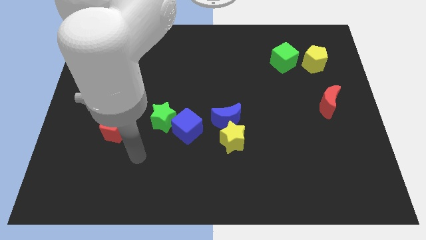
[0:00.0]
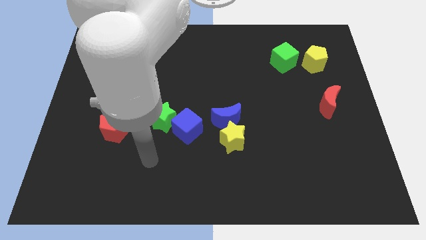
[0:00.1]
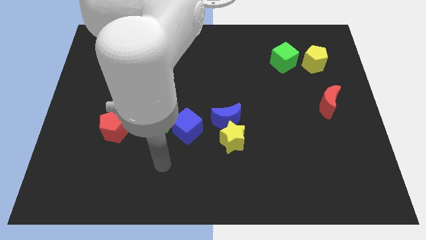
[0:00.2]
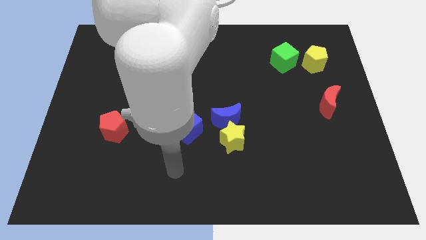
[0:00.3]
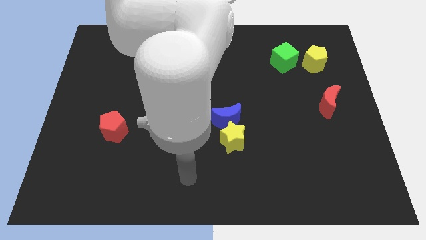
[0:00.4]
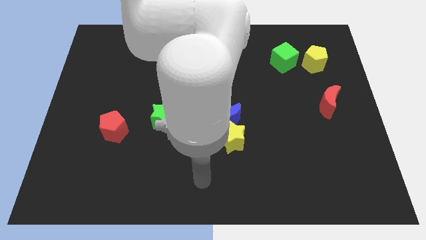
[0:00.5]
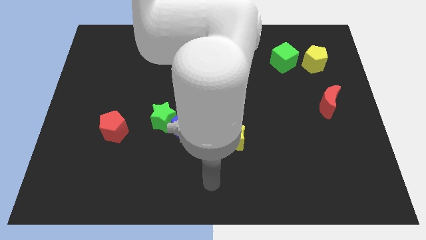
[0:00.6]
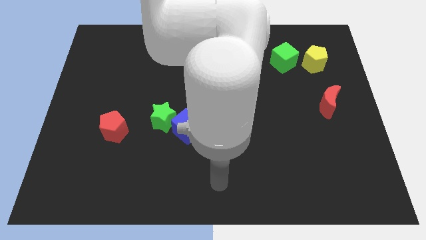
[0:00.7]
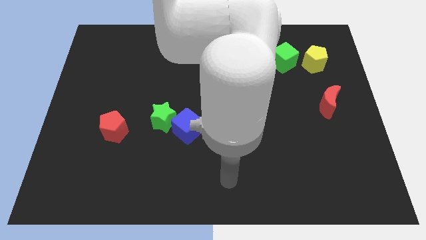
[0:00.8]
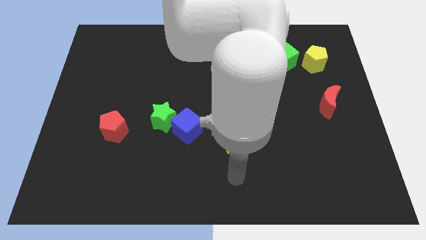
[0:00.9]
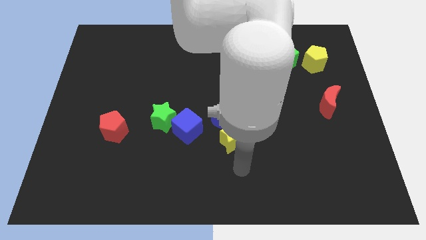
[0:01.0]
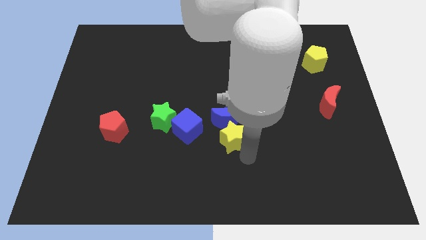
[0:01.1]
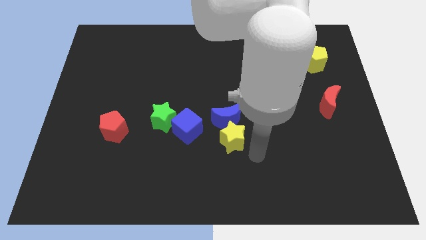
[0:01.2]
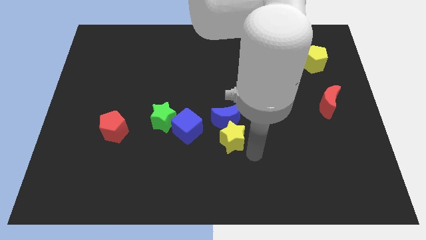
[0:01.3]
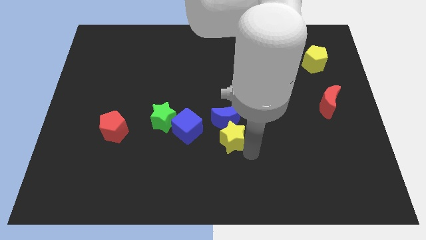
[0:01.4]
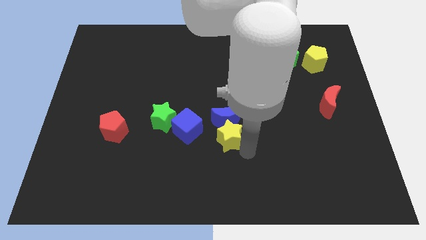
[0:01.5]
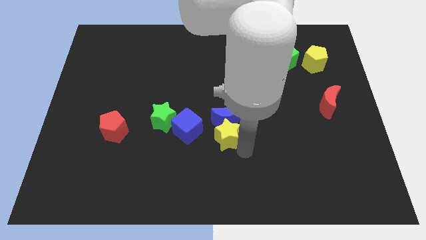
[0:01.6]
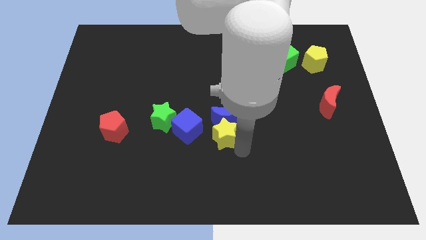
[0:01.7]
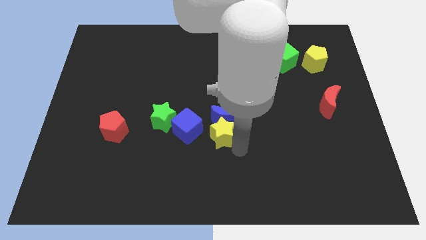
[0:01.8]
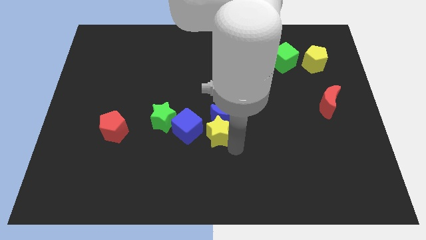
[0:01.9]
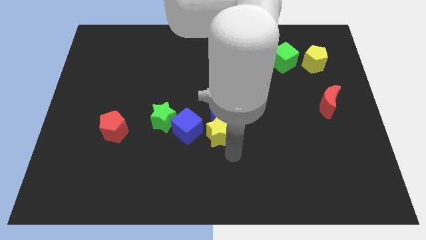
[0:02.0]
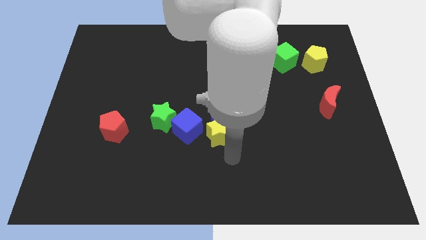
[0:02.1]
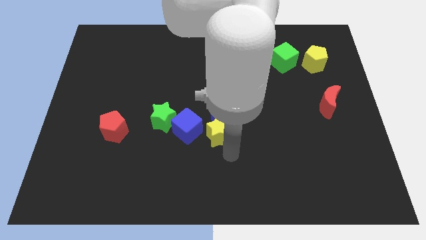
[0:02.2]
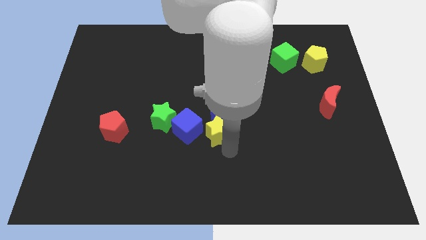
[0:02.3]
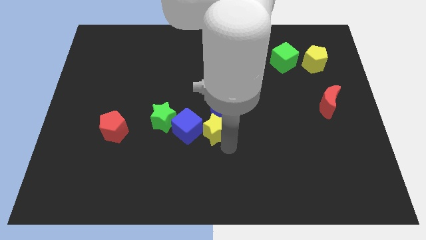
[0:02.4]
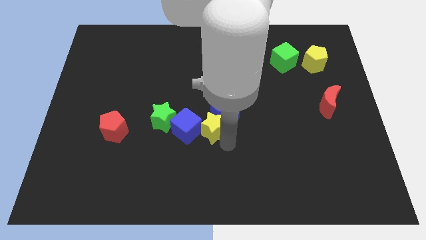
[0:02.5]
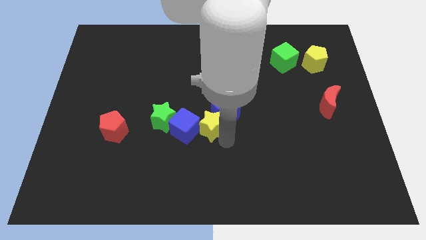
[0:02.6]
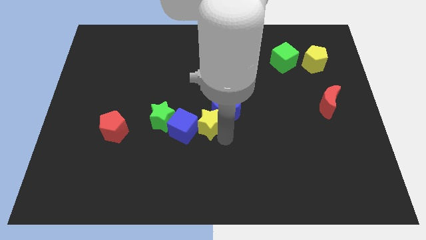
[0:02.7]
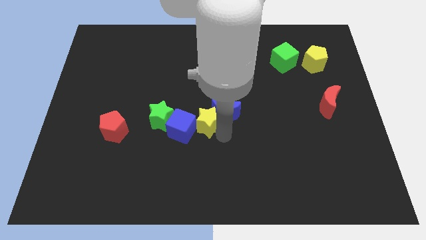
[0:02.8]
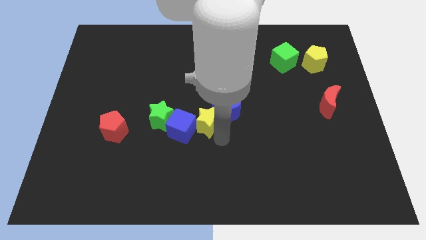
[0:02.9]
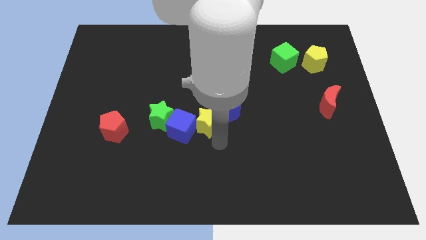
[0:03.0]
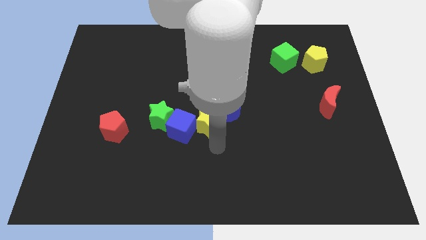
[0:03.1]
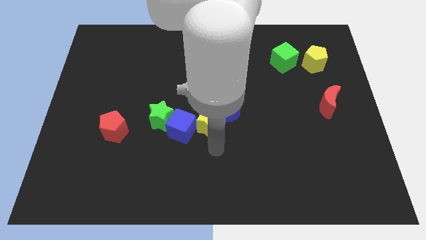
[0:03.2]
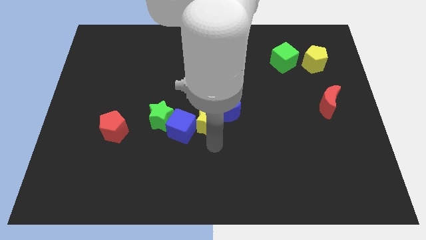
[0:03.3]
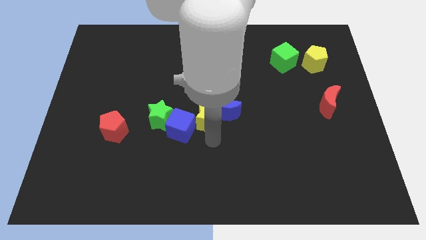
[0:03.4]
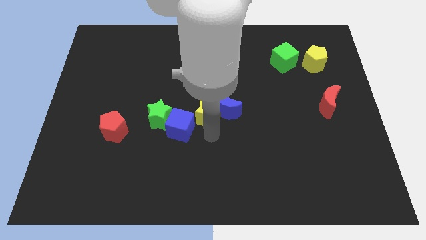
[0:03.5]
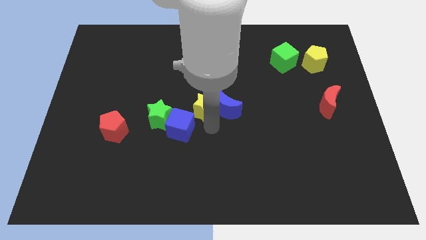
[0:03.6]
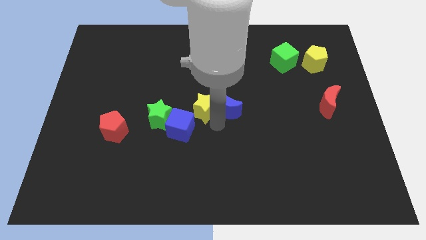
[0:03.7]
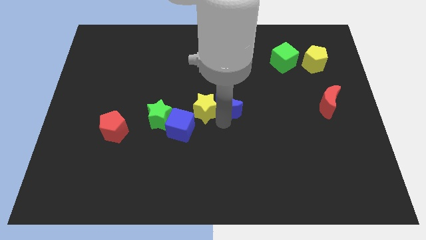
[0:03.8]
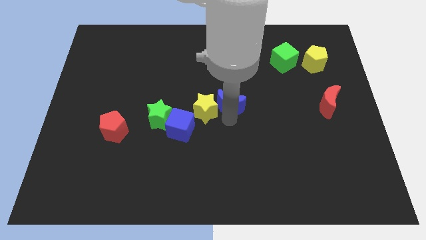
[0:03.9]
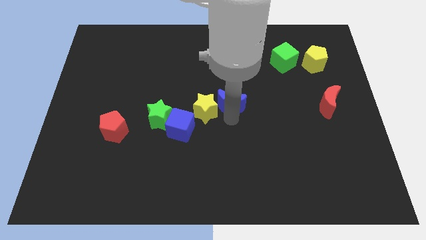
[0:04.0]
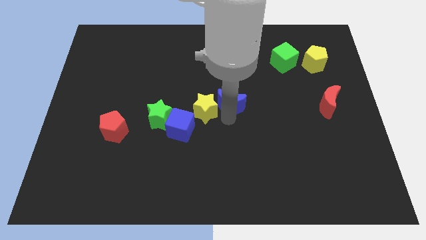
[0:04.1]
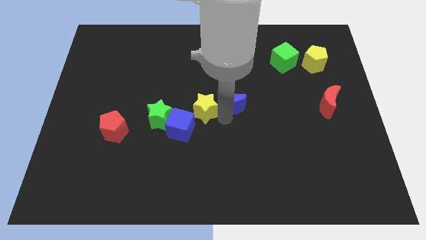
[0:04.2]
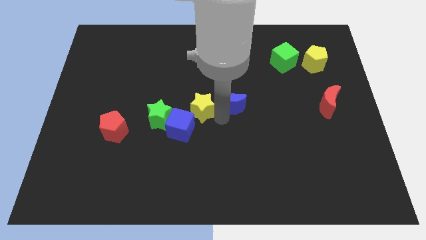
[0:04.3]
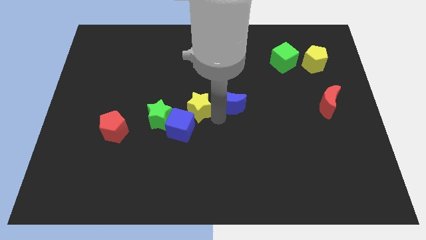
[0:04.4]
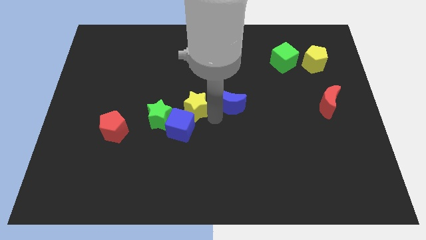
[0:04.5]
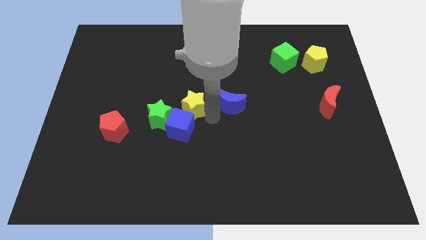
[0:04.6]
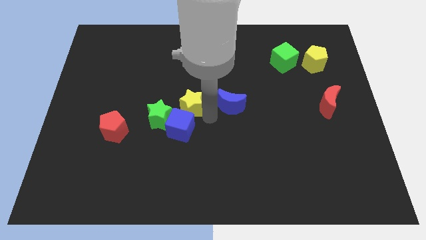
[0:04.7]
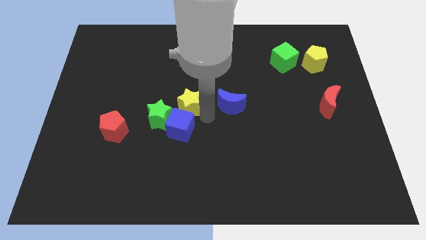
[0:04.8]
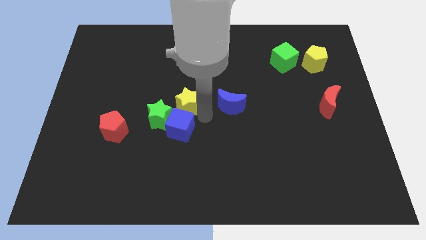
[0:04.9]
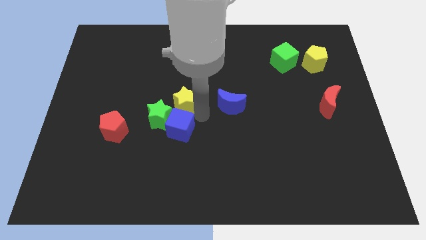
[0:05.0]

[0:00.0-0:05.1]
push the yellow star to the top left of the blue cube

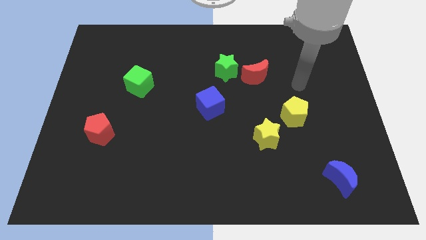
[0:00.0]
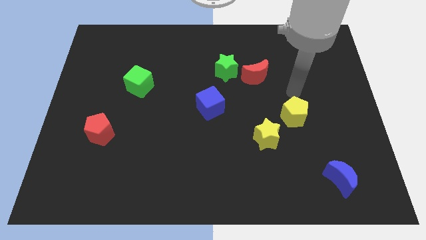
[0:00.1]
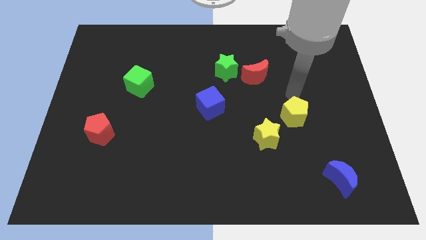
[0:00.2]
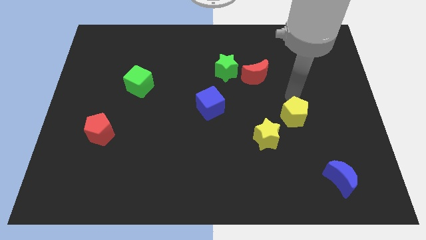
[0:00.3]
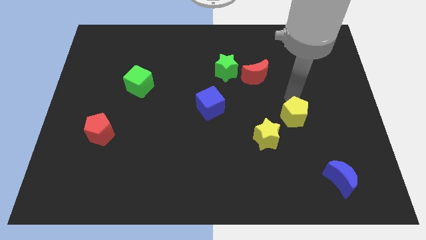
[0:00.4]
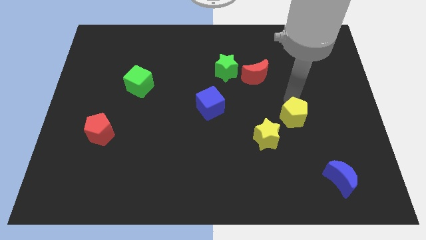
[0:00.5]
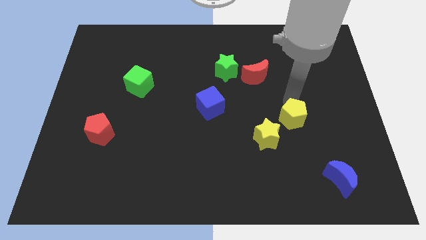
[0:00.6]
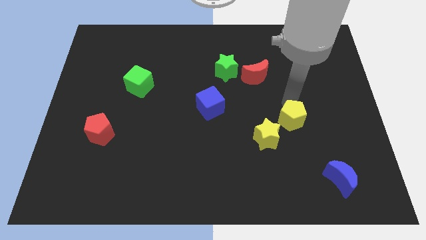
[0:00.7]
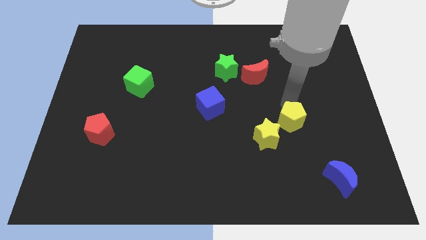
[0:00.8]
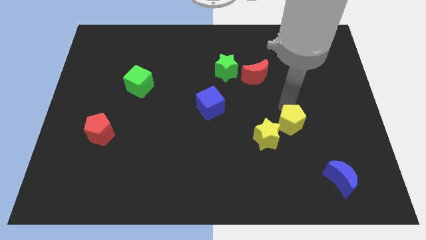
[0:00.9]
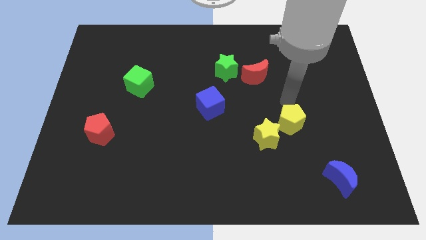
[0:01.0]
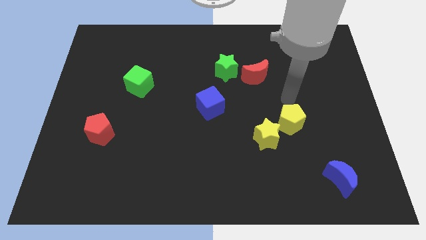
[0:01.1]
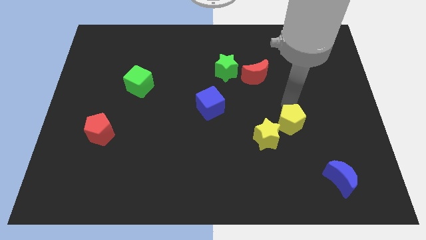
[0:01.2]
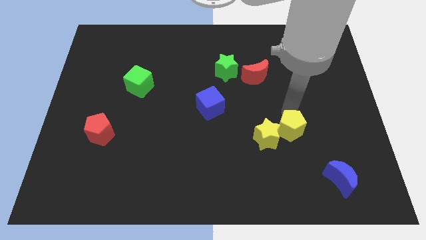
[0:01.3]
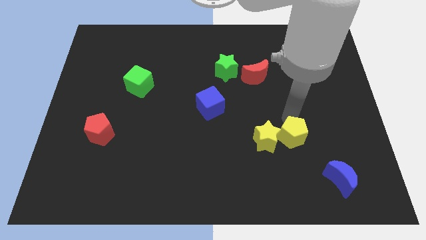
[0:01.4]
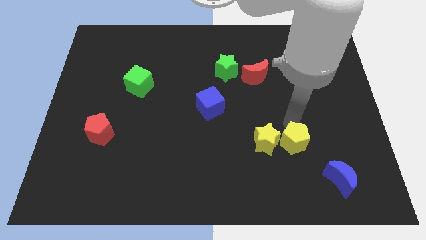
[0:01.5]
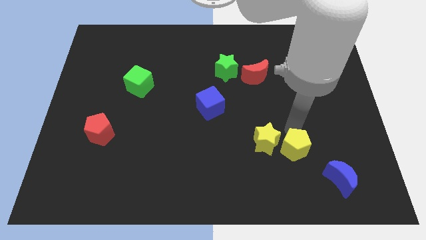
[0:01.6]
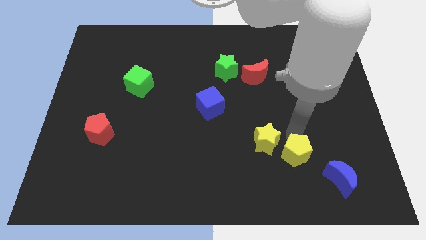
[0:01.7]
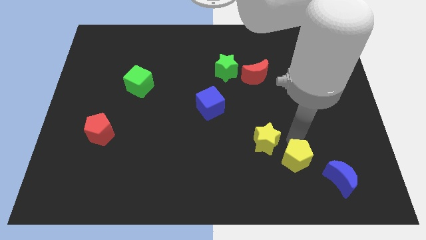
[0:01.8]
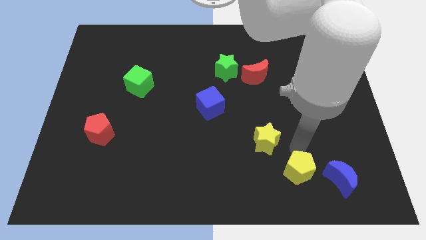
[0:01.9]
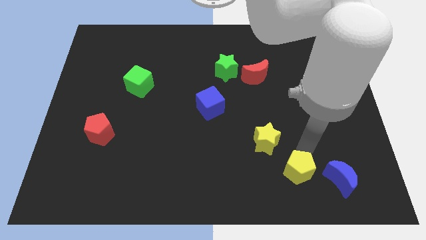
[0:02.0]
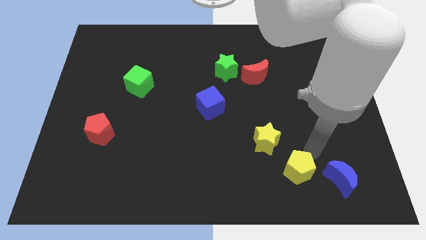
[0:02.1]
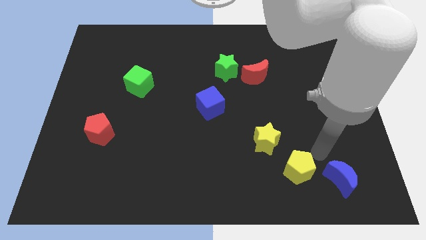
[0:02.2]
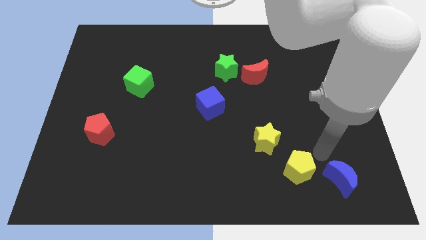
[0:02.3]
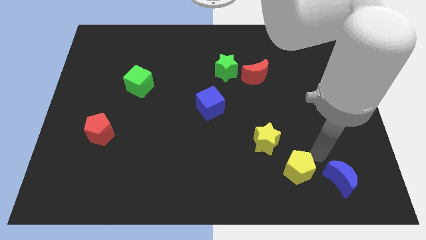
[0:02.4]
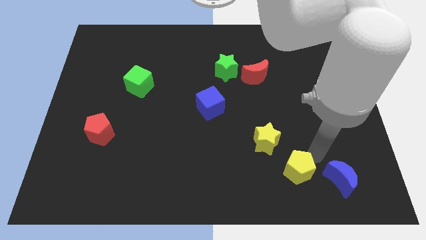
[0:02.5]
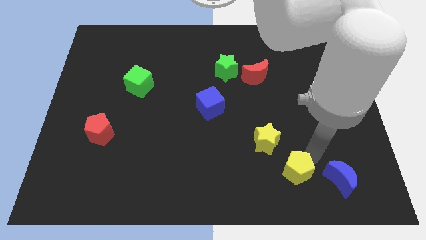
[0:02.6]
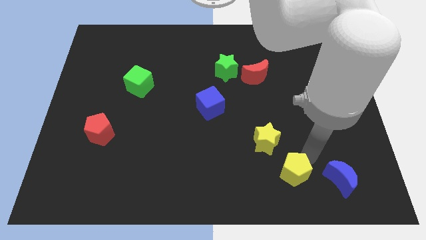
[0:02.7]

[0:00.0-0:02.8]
put the yellow pentagon to the bottom side of the yellow star
